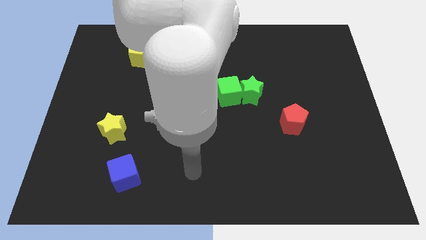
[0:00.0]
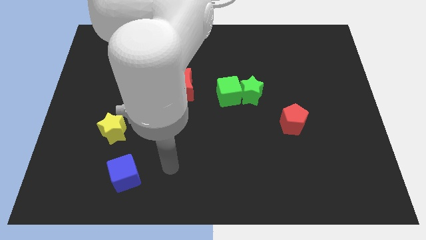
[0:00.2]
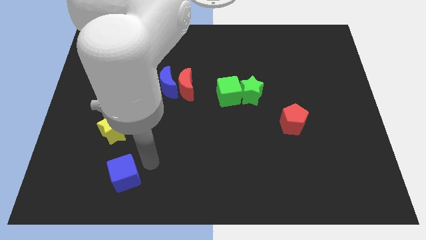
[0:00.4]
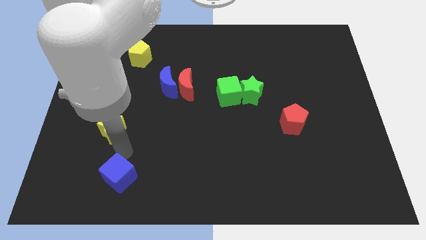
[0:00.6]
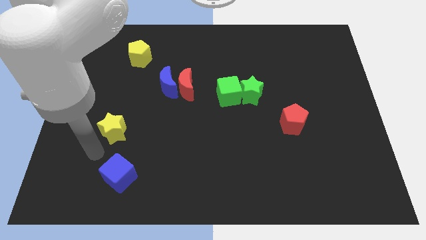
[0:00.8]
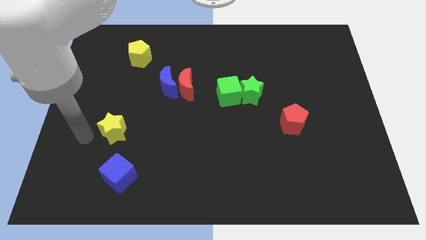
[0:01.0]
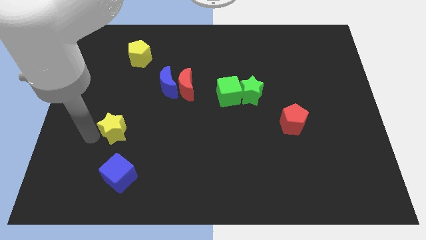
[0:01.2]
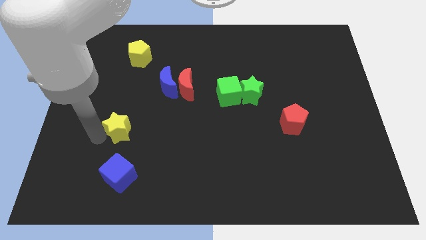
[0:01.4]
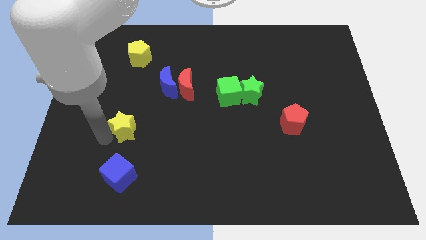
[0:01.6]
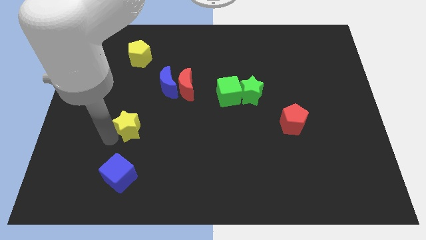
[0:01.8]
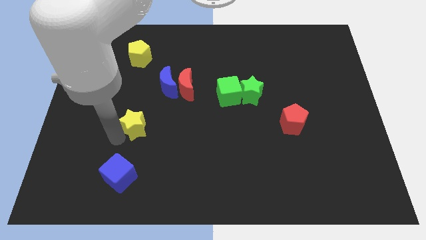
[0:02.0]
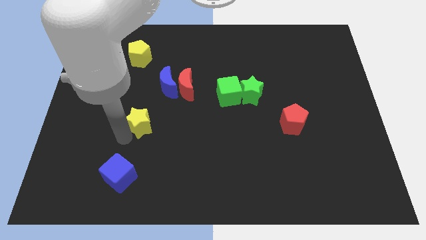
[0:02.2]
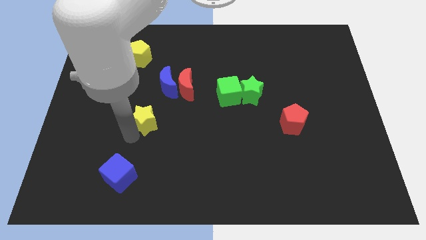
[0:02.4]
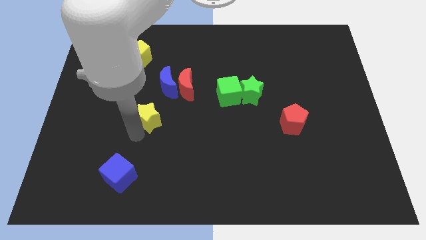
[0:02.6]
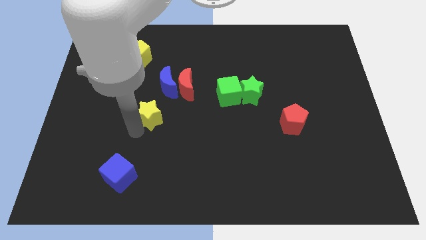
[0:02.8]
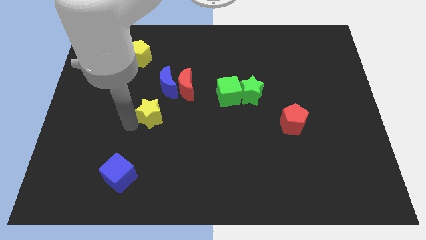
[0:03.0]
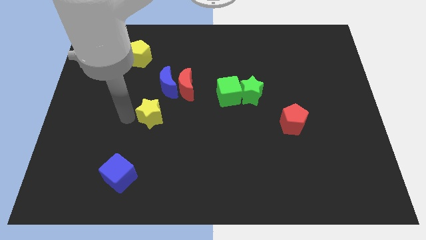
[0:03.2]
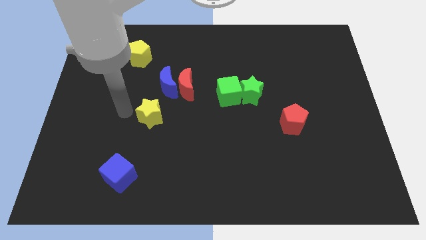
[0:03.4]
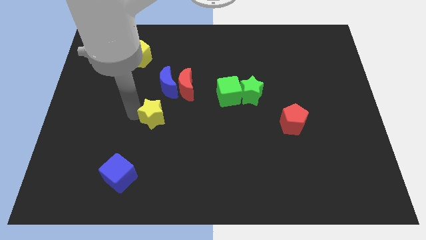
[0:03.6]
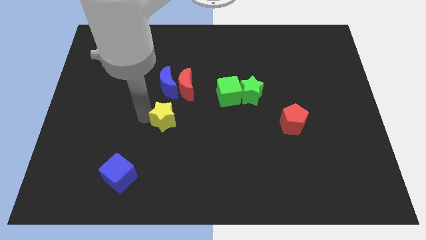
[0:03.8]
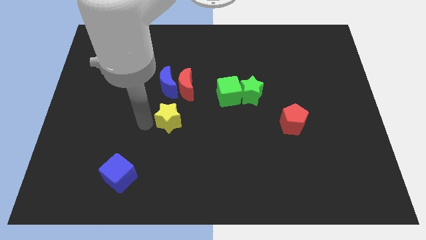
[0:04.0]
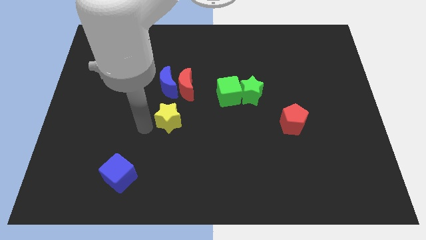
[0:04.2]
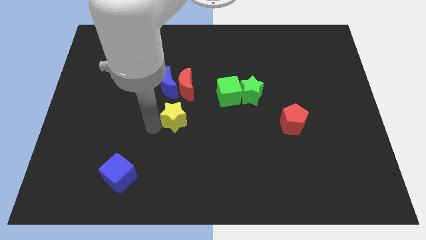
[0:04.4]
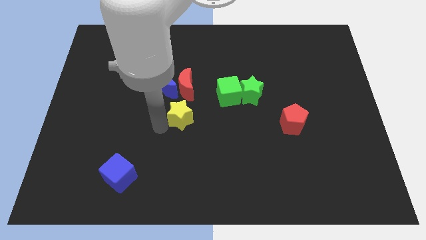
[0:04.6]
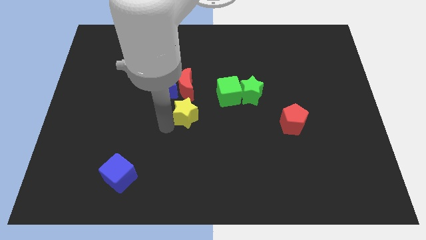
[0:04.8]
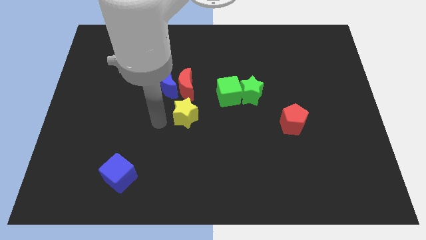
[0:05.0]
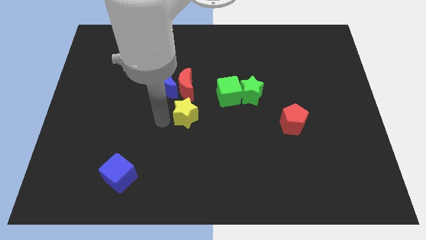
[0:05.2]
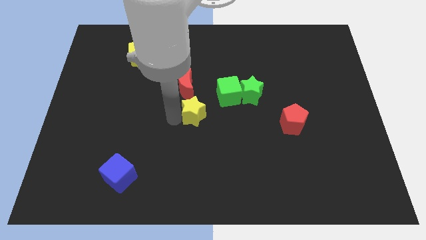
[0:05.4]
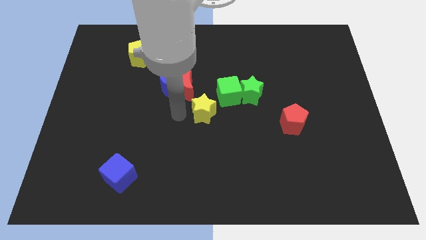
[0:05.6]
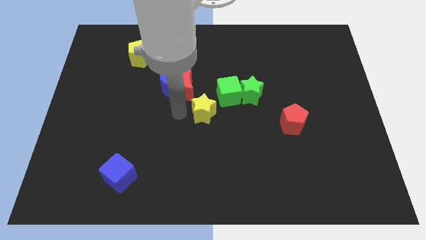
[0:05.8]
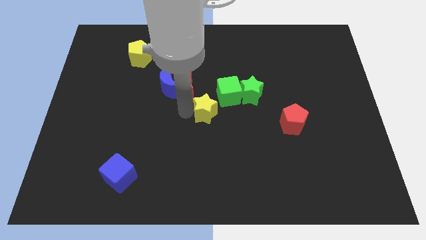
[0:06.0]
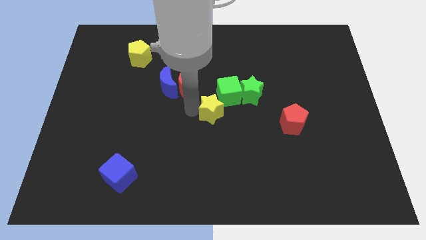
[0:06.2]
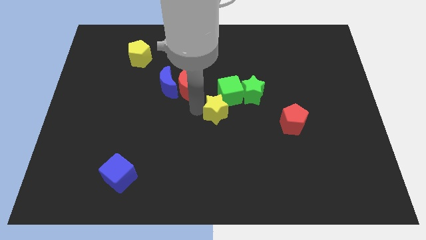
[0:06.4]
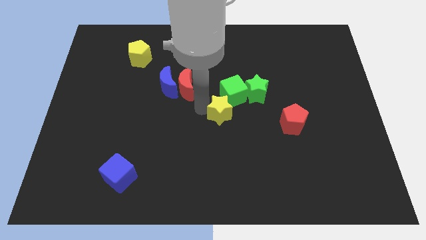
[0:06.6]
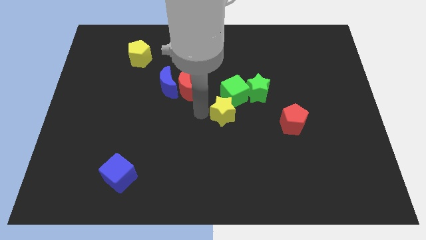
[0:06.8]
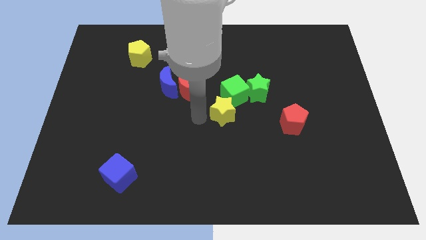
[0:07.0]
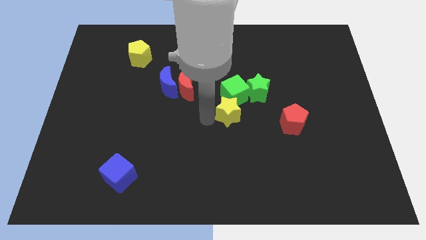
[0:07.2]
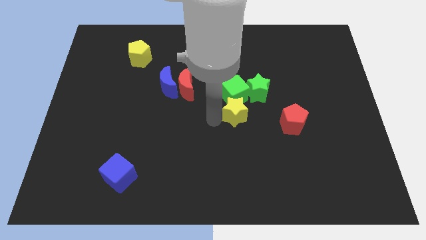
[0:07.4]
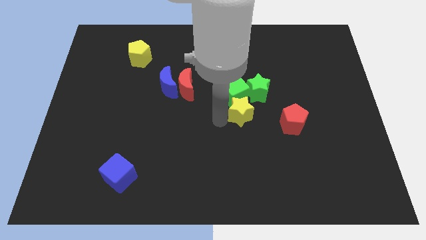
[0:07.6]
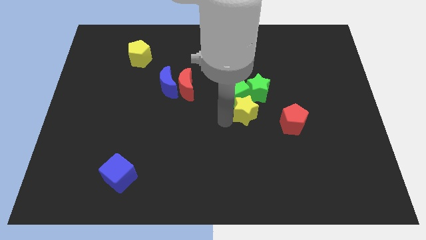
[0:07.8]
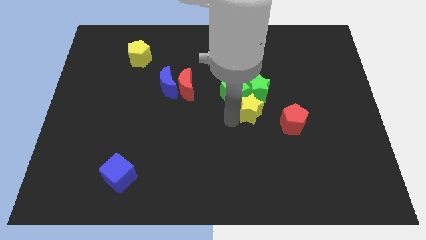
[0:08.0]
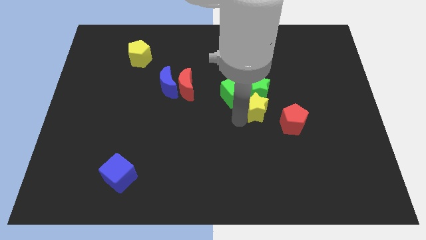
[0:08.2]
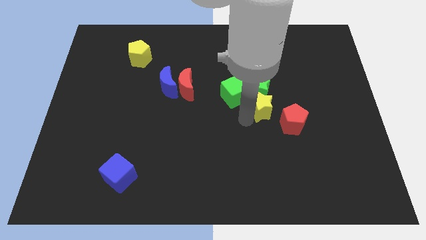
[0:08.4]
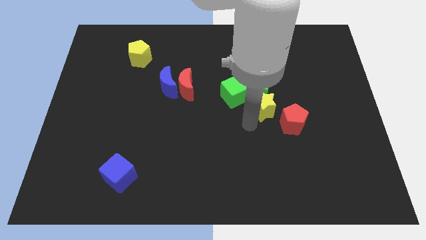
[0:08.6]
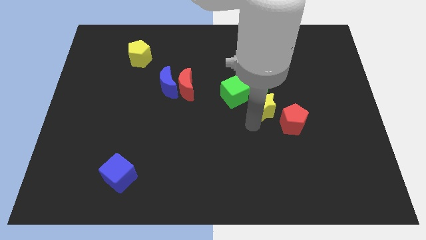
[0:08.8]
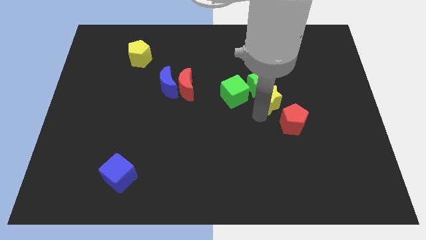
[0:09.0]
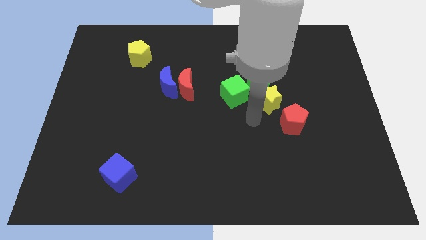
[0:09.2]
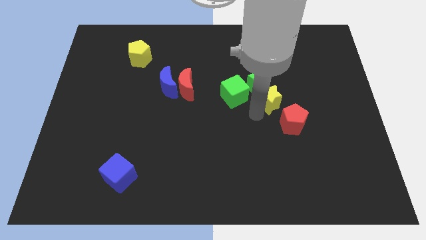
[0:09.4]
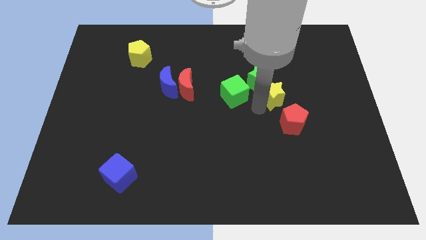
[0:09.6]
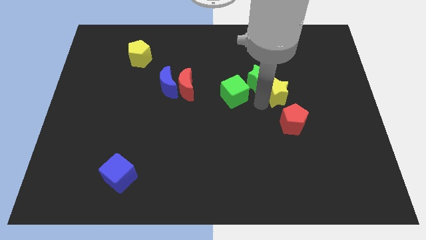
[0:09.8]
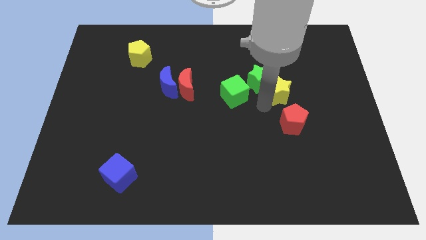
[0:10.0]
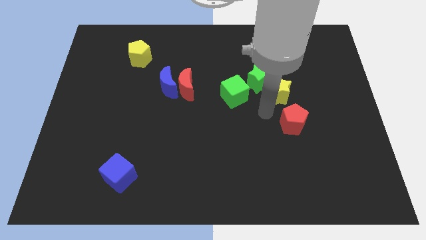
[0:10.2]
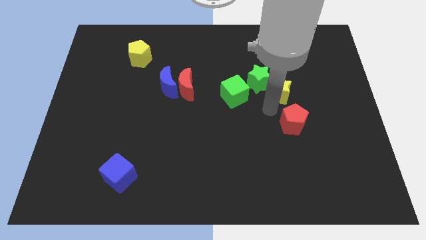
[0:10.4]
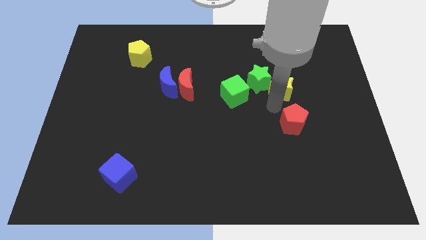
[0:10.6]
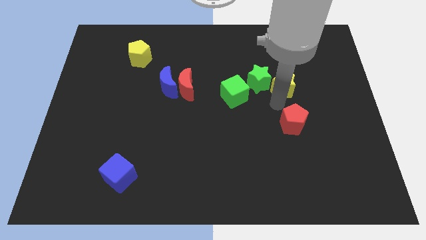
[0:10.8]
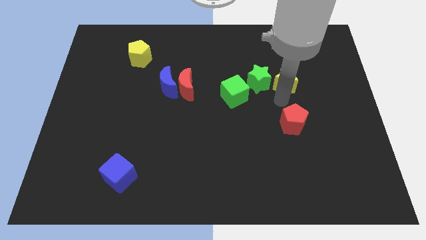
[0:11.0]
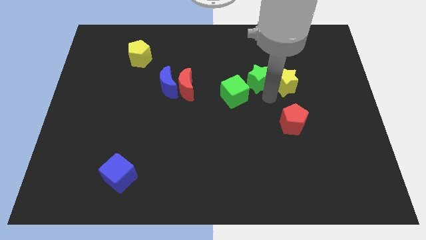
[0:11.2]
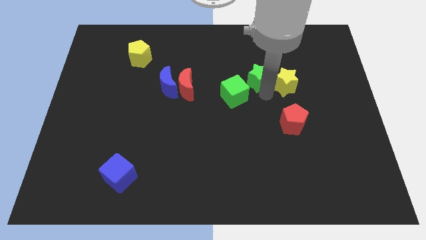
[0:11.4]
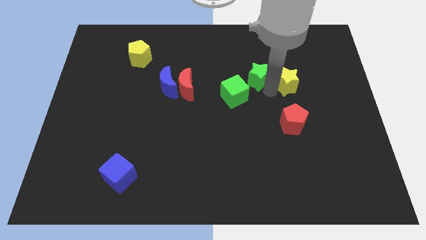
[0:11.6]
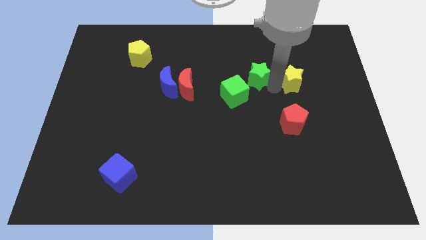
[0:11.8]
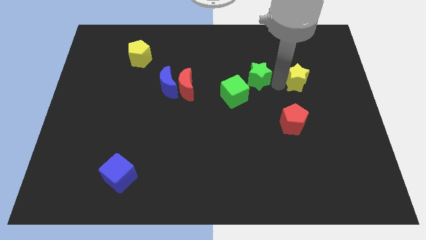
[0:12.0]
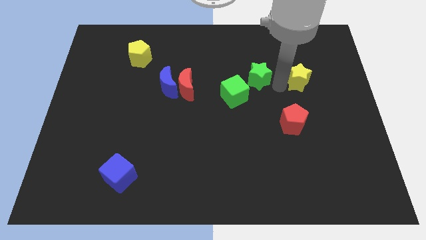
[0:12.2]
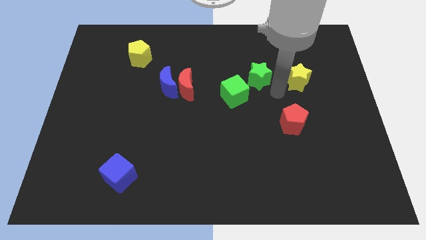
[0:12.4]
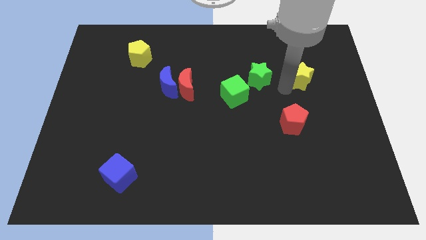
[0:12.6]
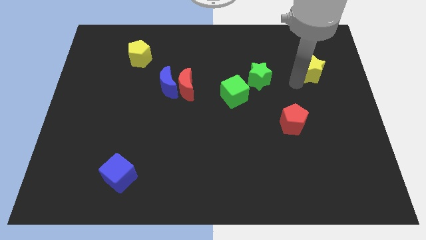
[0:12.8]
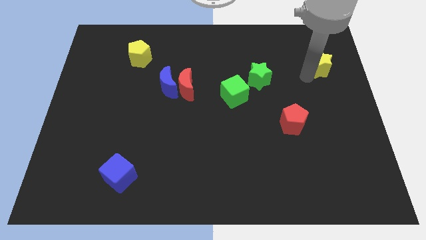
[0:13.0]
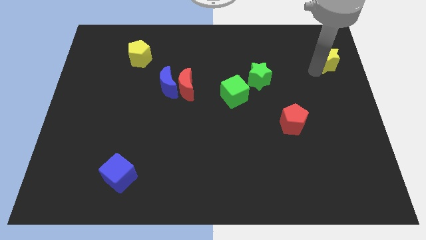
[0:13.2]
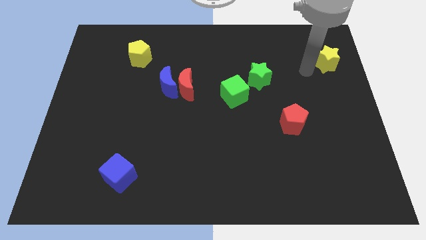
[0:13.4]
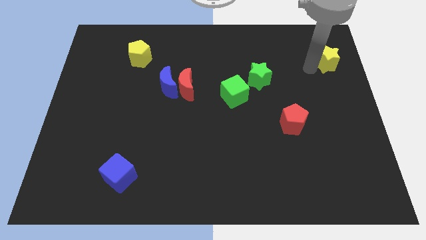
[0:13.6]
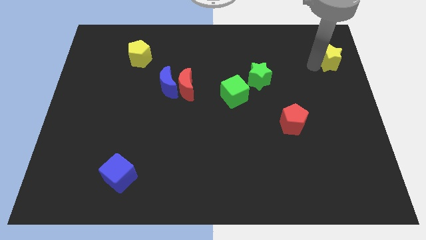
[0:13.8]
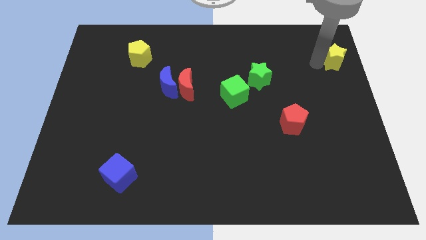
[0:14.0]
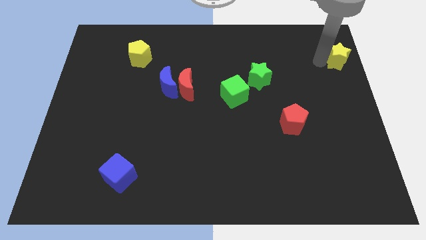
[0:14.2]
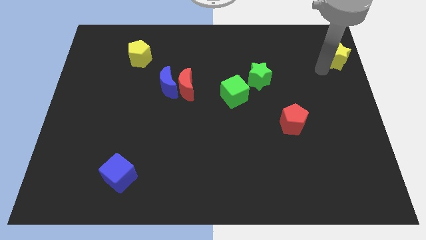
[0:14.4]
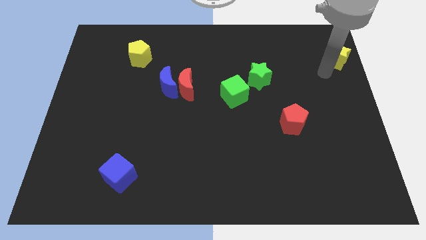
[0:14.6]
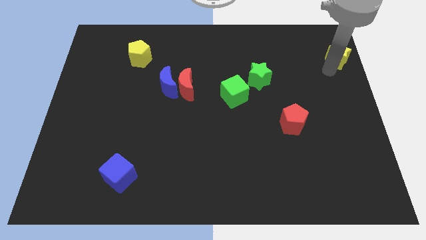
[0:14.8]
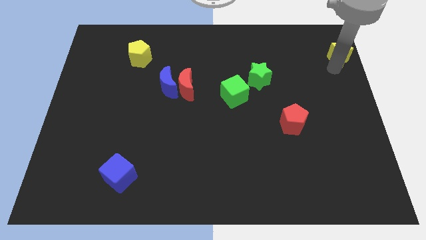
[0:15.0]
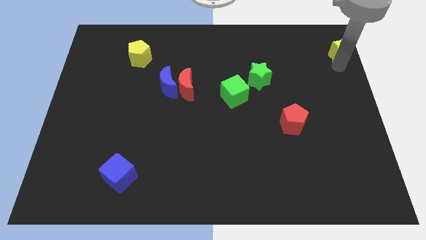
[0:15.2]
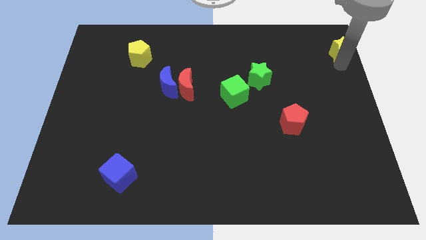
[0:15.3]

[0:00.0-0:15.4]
slide the yellow star to the top right of the board
